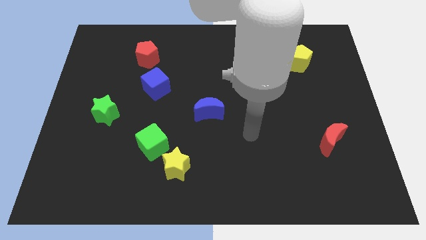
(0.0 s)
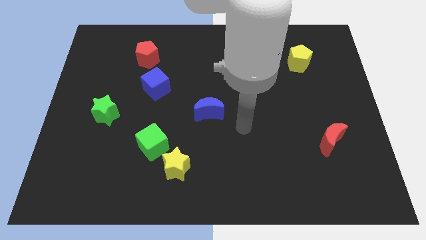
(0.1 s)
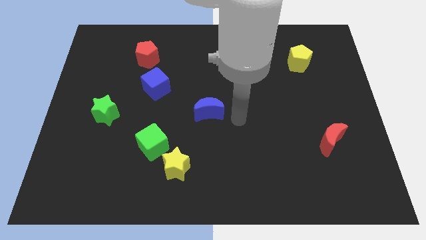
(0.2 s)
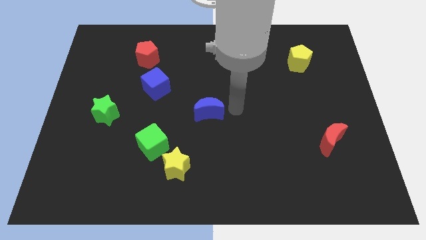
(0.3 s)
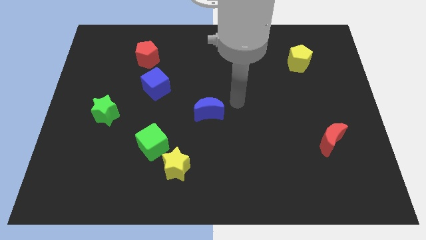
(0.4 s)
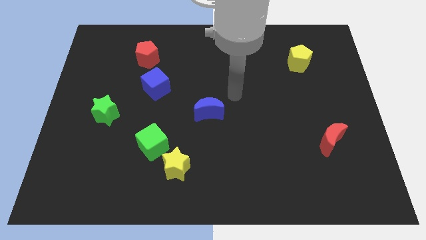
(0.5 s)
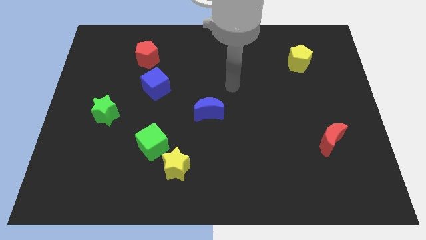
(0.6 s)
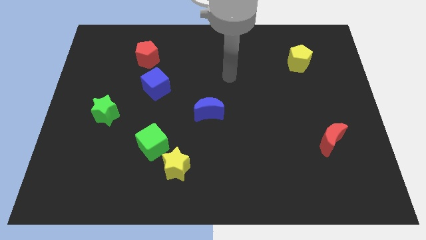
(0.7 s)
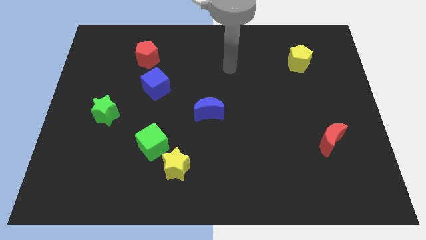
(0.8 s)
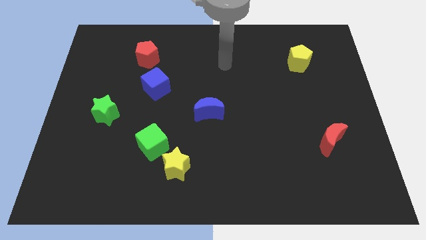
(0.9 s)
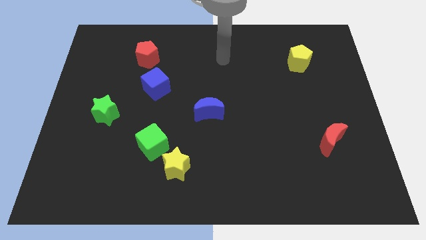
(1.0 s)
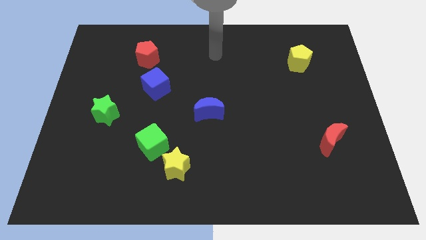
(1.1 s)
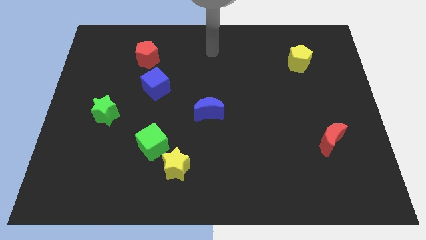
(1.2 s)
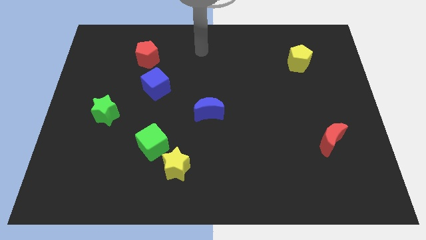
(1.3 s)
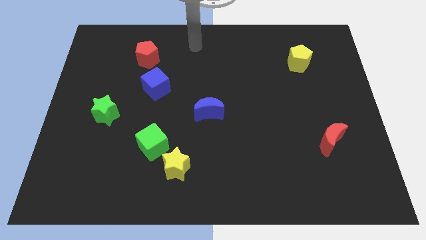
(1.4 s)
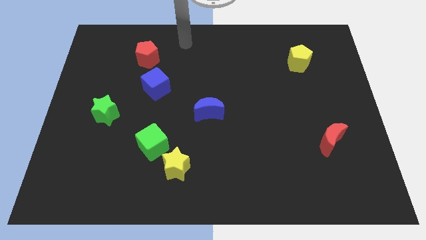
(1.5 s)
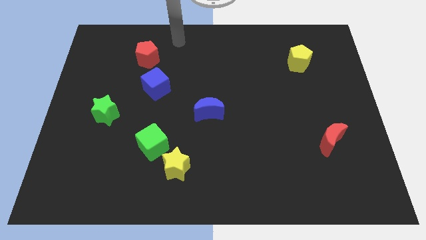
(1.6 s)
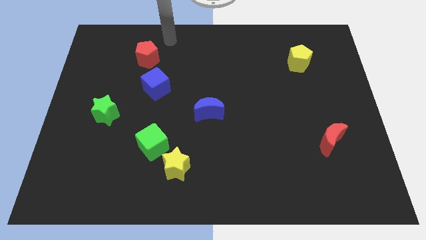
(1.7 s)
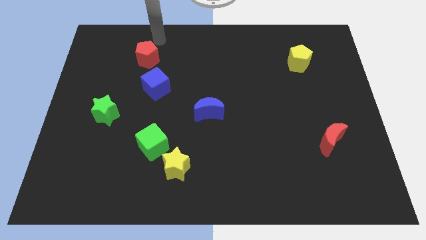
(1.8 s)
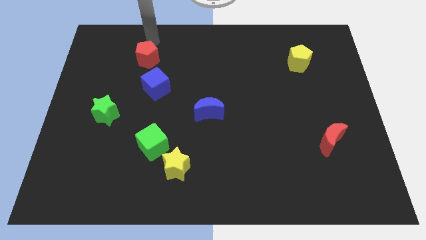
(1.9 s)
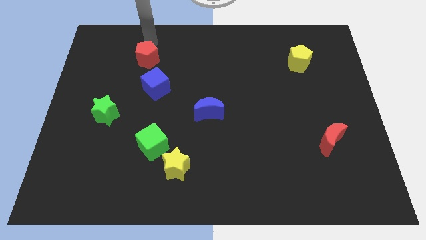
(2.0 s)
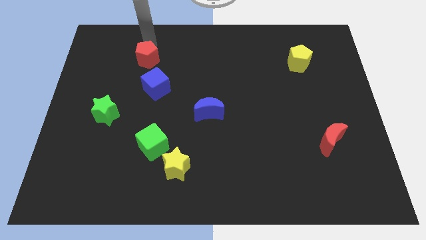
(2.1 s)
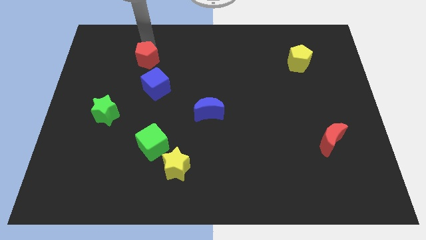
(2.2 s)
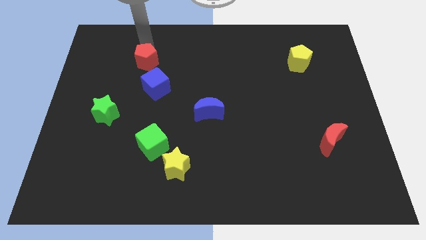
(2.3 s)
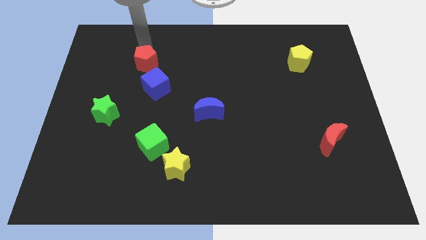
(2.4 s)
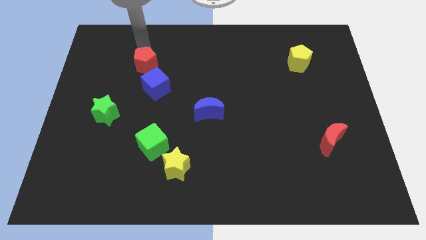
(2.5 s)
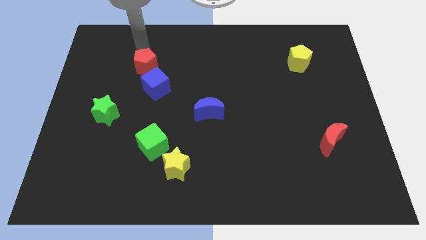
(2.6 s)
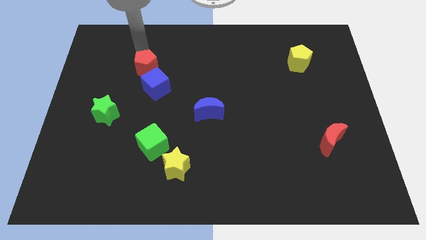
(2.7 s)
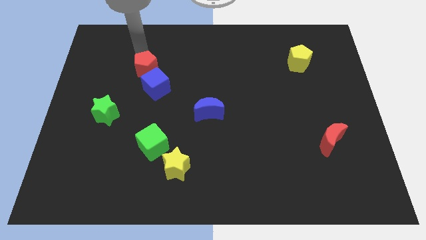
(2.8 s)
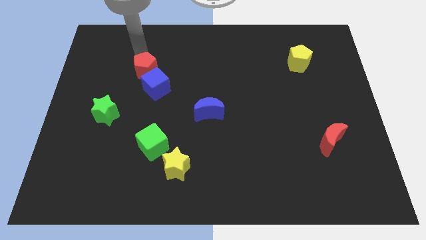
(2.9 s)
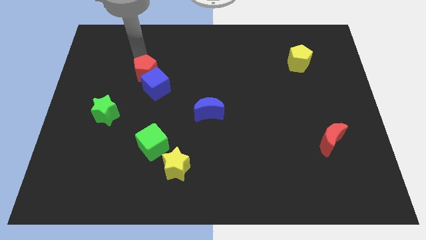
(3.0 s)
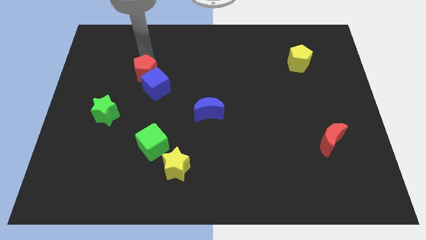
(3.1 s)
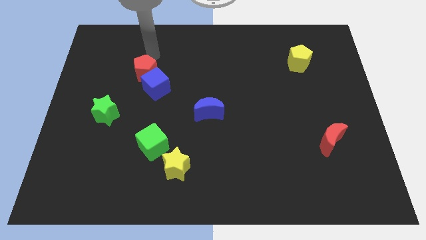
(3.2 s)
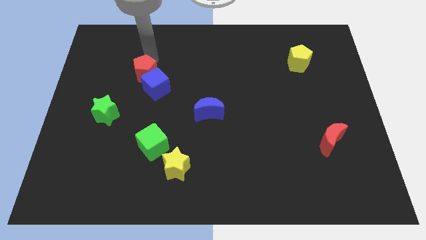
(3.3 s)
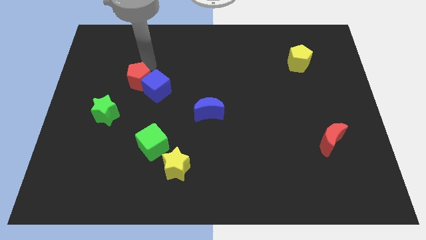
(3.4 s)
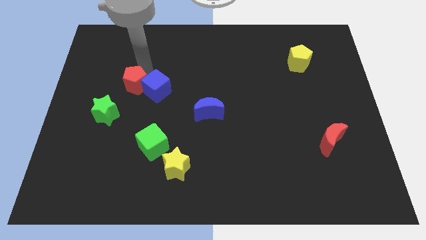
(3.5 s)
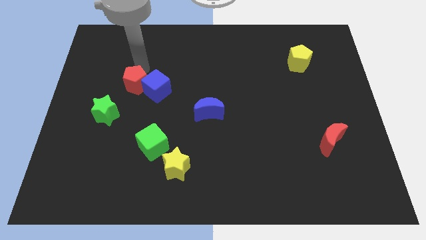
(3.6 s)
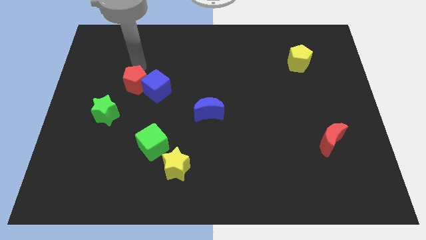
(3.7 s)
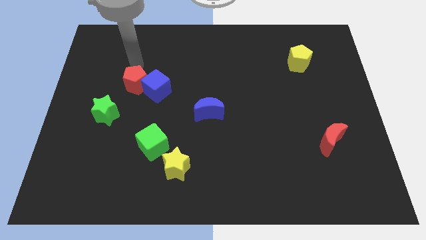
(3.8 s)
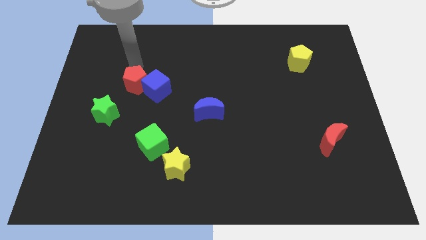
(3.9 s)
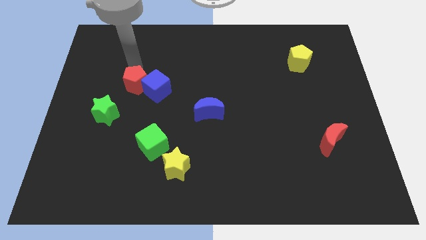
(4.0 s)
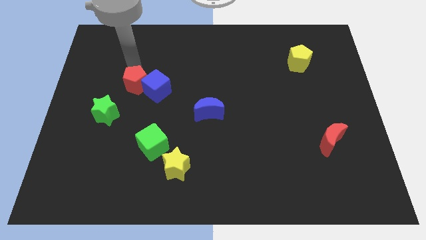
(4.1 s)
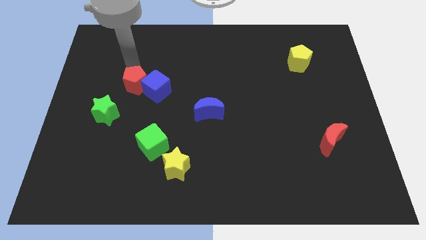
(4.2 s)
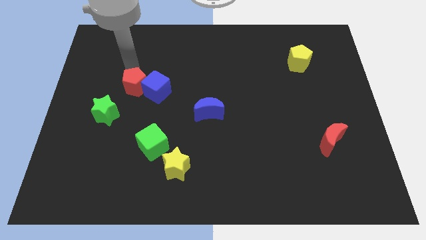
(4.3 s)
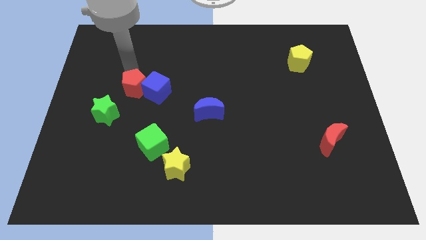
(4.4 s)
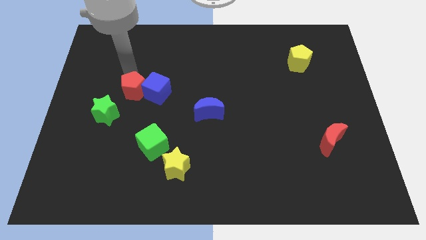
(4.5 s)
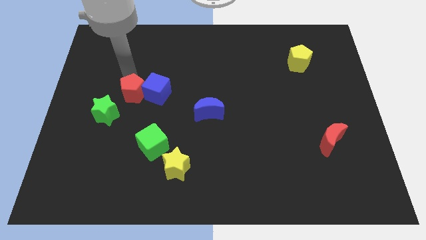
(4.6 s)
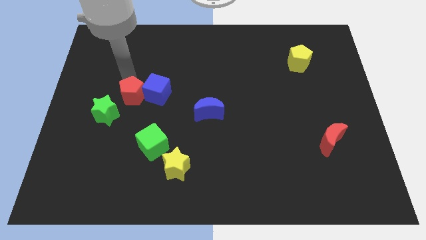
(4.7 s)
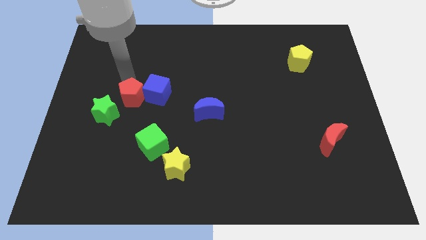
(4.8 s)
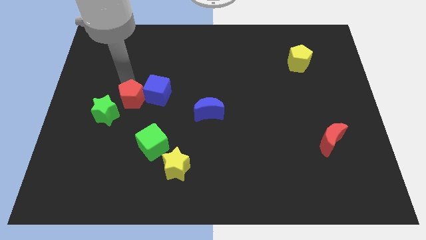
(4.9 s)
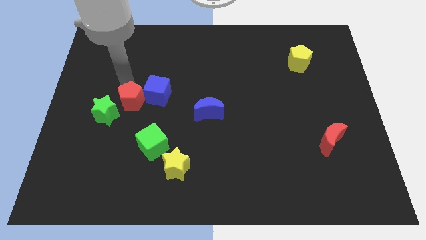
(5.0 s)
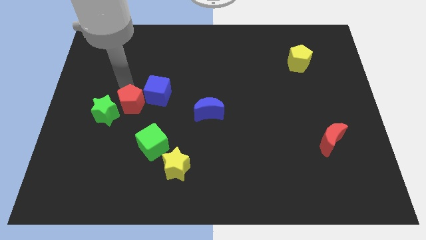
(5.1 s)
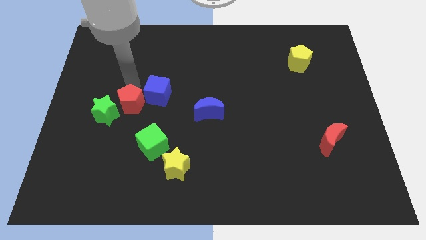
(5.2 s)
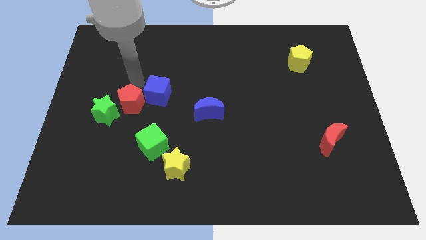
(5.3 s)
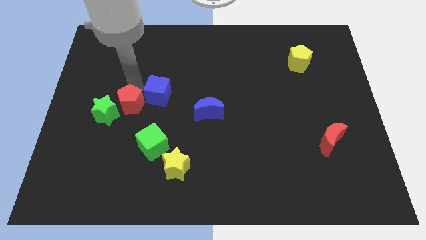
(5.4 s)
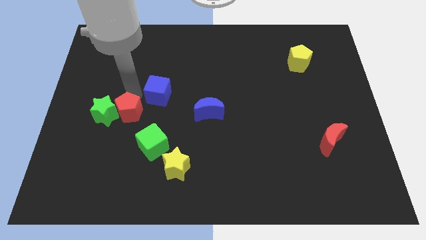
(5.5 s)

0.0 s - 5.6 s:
move the red pentagon to the bottom right side of the green star
